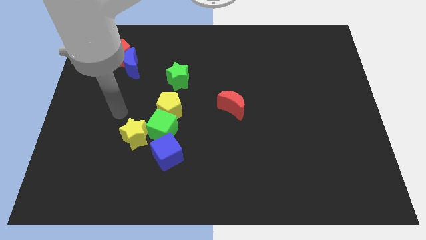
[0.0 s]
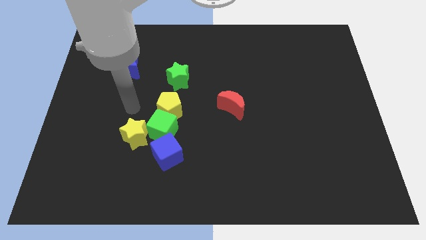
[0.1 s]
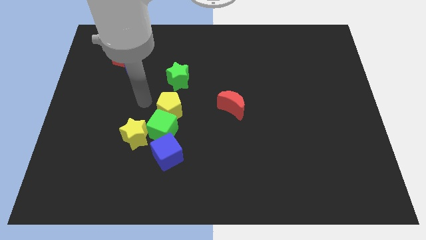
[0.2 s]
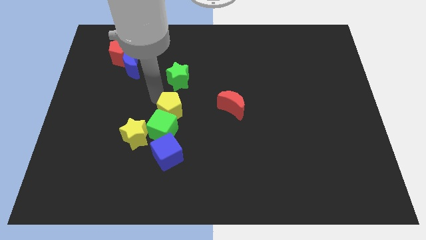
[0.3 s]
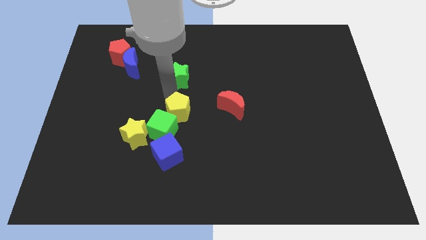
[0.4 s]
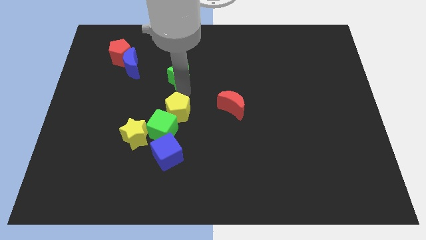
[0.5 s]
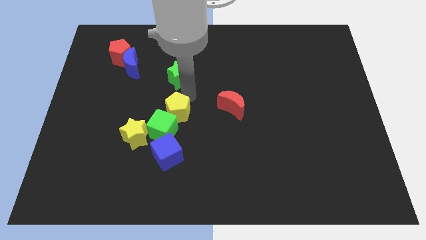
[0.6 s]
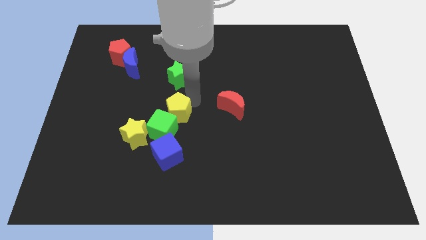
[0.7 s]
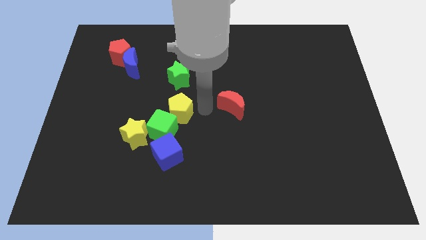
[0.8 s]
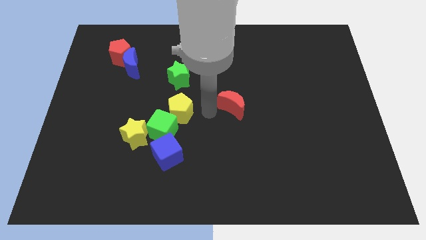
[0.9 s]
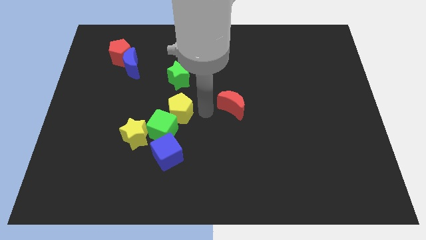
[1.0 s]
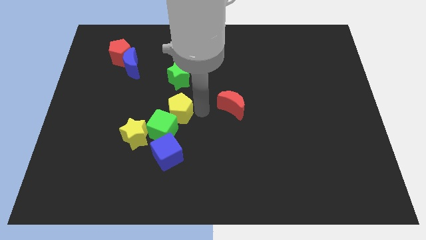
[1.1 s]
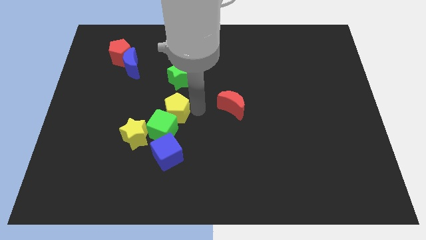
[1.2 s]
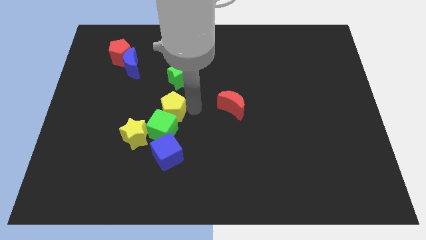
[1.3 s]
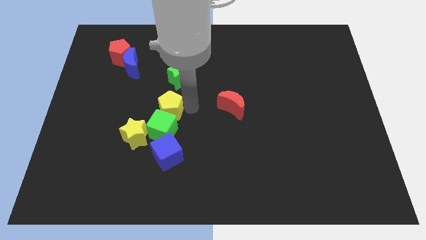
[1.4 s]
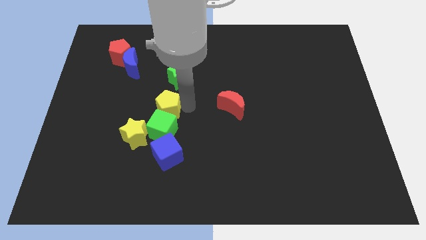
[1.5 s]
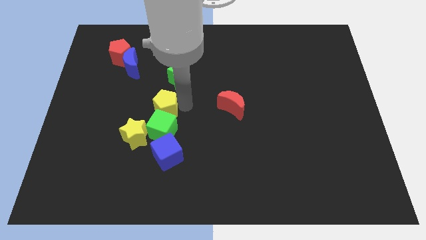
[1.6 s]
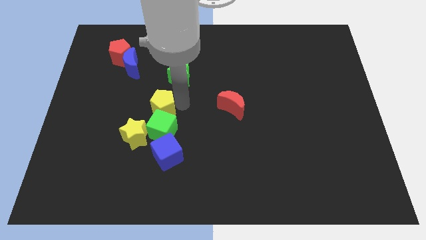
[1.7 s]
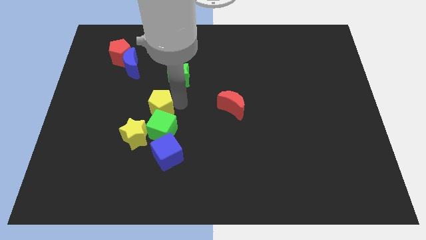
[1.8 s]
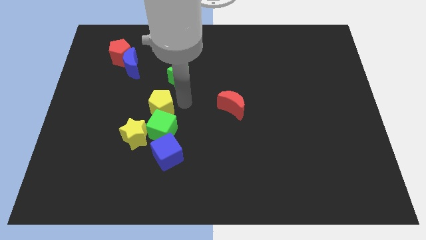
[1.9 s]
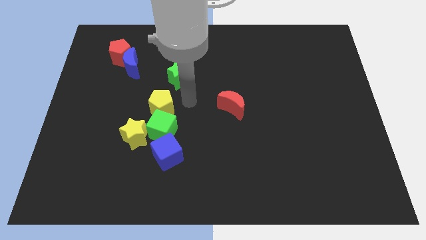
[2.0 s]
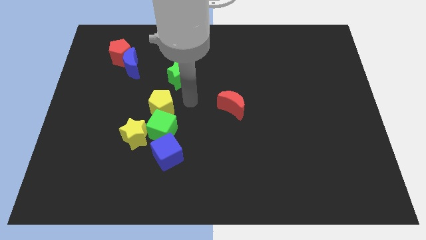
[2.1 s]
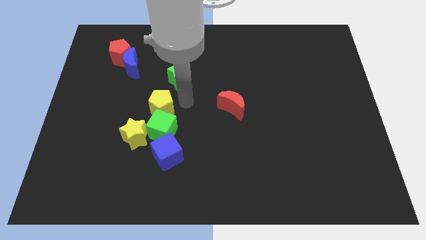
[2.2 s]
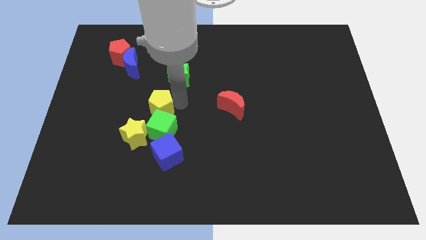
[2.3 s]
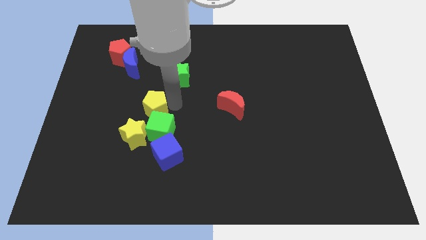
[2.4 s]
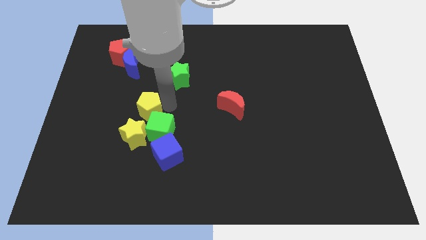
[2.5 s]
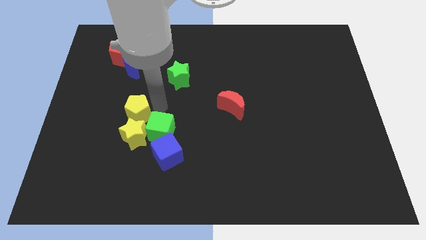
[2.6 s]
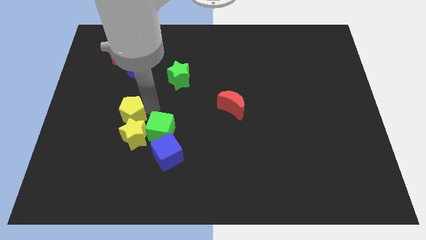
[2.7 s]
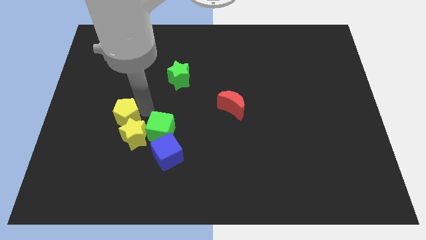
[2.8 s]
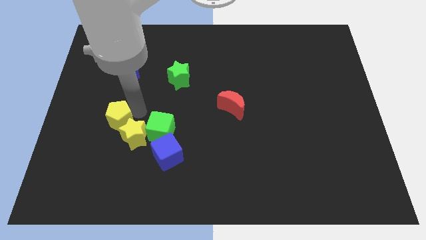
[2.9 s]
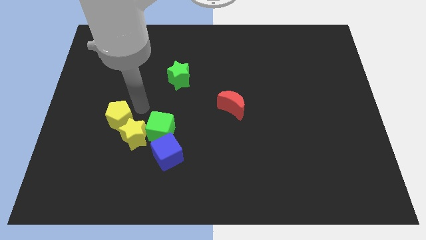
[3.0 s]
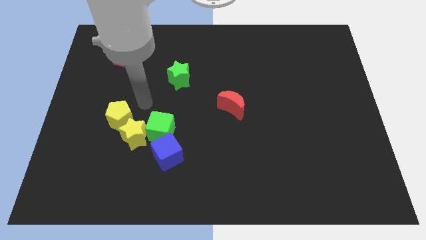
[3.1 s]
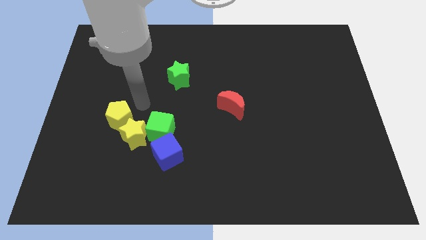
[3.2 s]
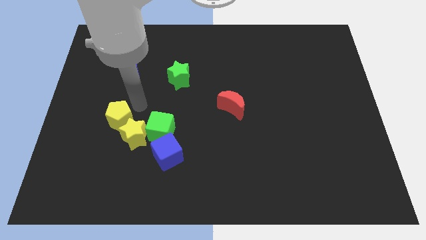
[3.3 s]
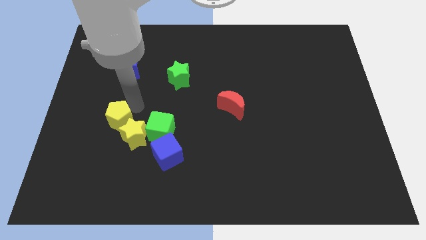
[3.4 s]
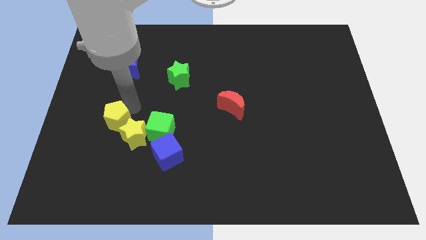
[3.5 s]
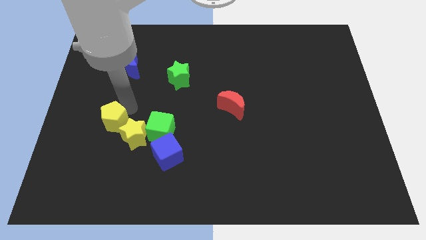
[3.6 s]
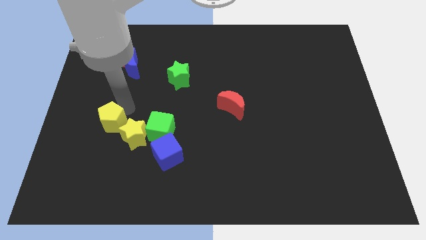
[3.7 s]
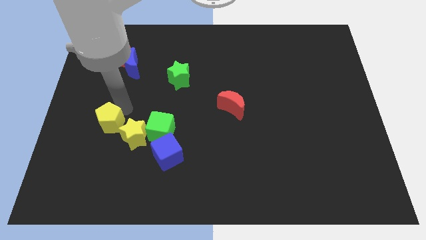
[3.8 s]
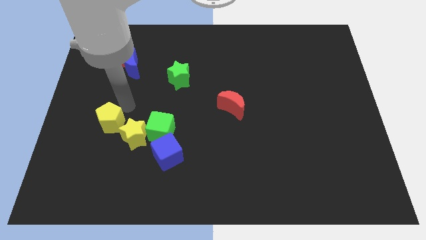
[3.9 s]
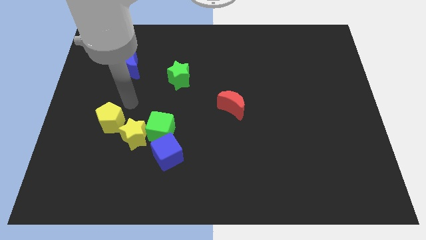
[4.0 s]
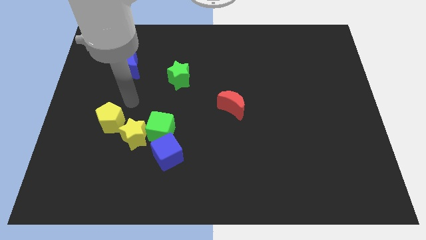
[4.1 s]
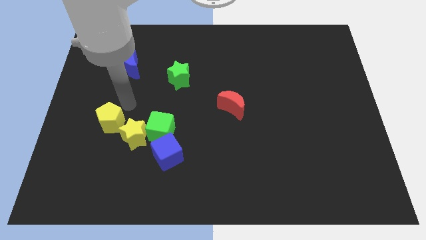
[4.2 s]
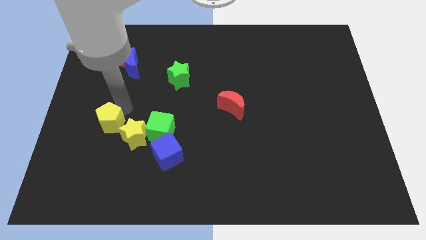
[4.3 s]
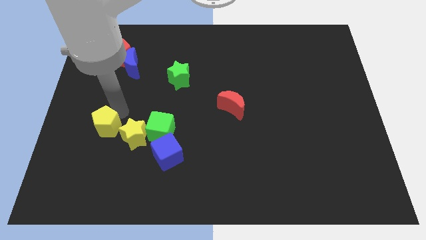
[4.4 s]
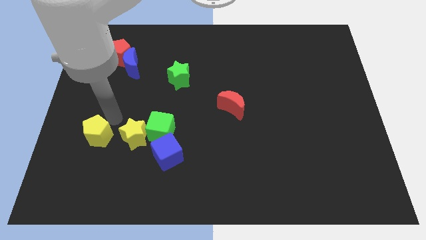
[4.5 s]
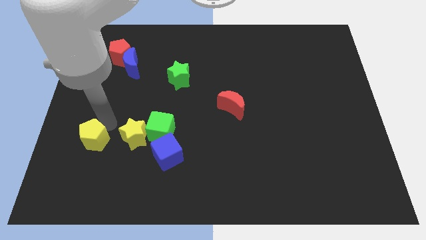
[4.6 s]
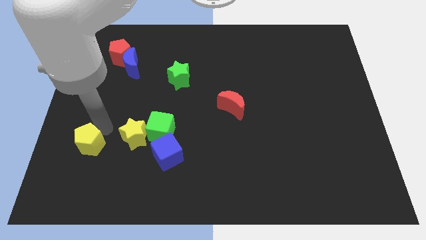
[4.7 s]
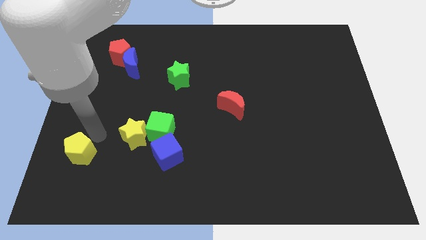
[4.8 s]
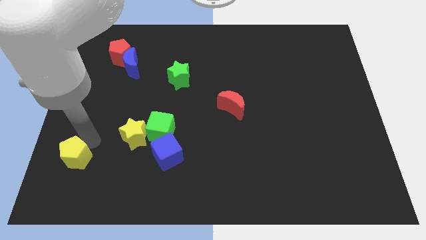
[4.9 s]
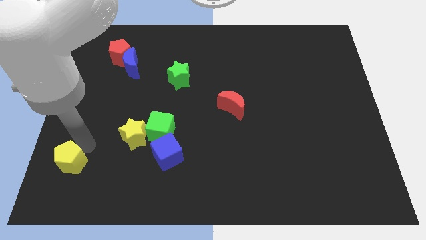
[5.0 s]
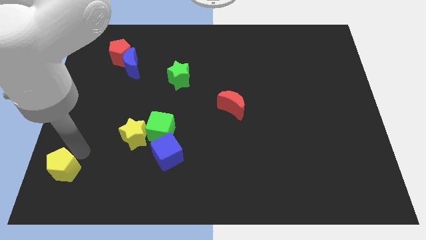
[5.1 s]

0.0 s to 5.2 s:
put the yellow pentagon to the lower left corner

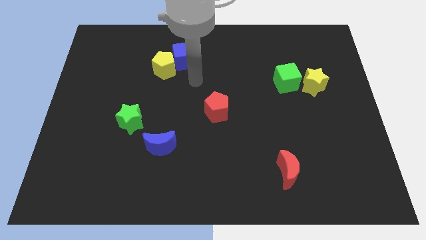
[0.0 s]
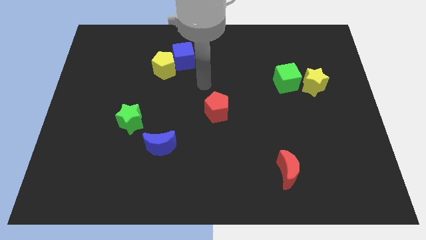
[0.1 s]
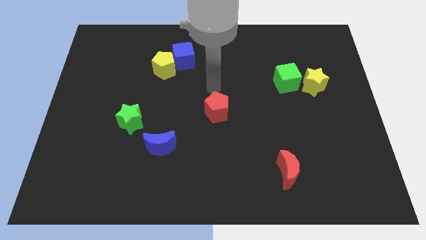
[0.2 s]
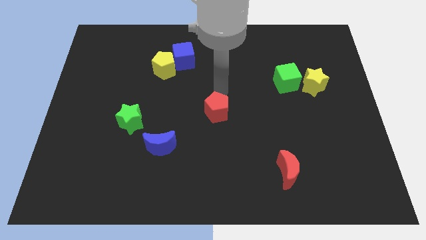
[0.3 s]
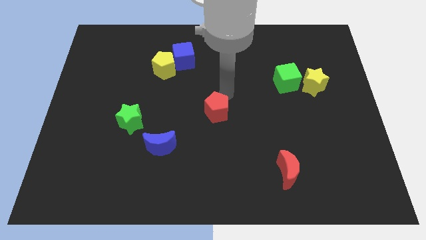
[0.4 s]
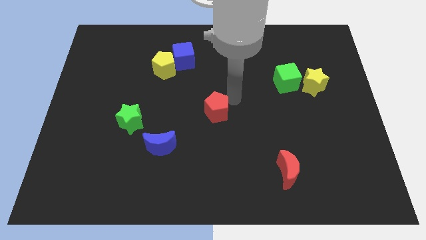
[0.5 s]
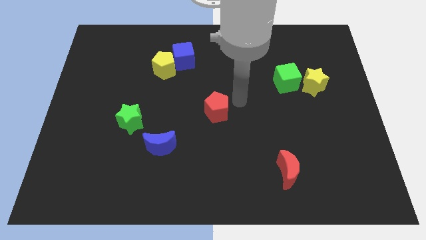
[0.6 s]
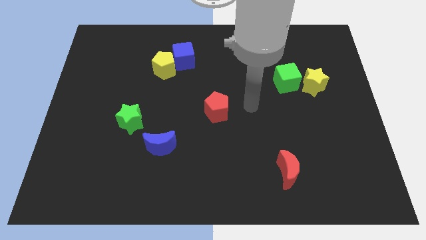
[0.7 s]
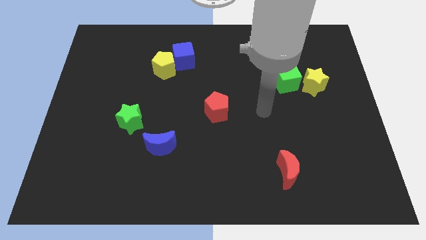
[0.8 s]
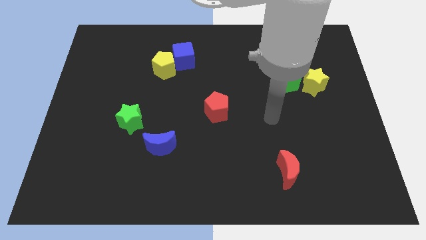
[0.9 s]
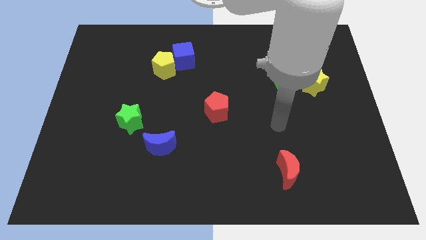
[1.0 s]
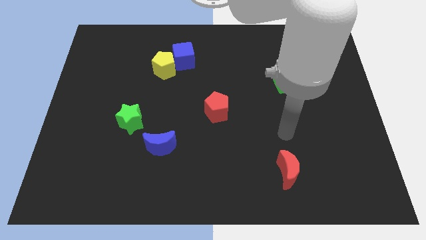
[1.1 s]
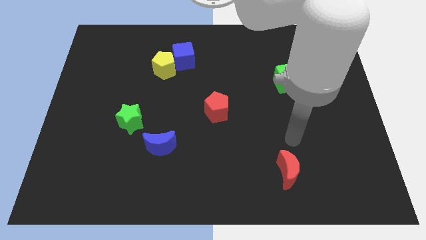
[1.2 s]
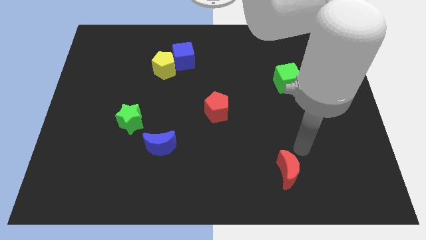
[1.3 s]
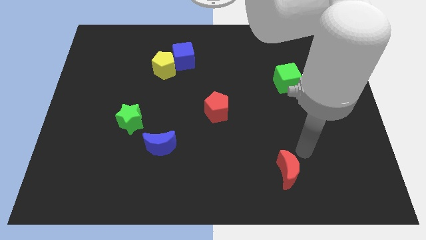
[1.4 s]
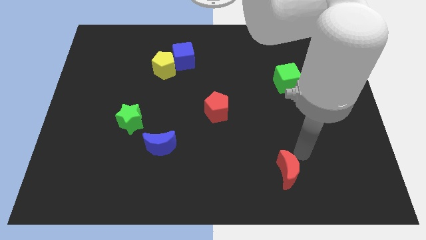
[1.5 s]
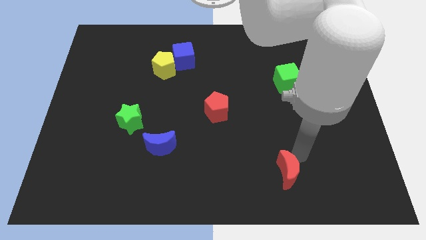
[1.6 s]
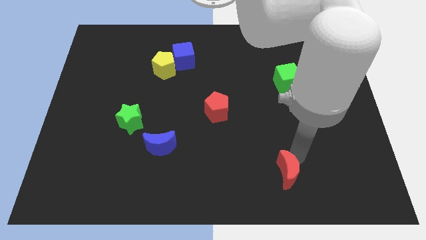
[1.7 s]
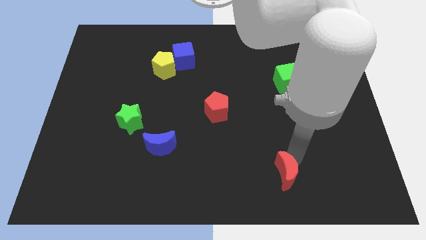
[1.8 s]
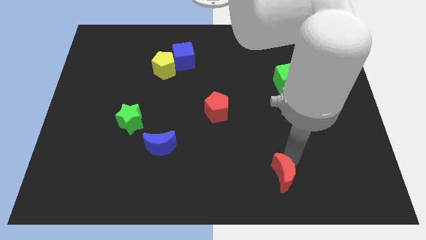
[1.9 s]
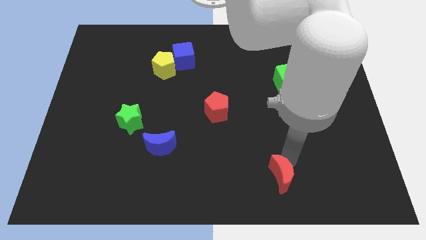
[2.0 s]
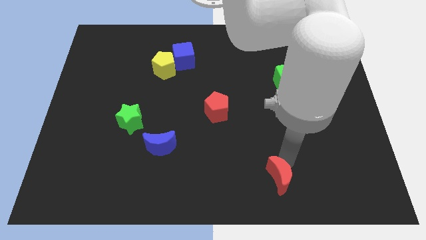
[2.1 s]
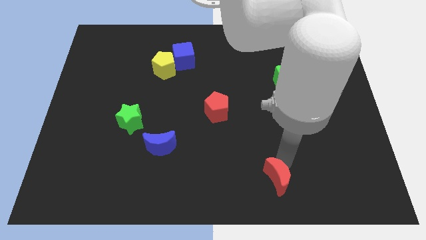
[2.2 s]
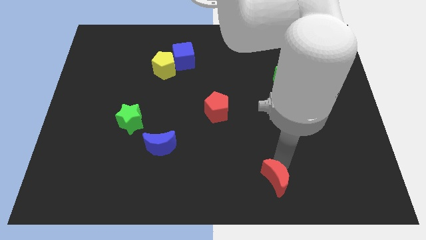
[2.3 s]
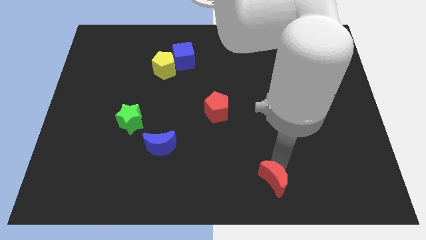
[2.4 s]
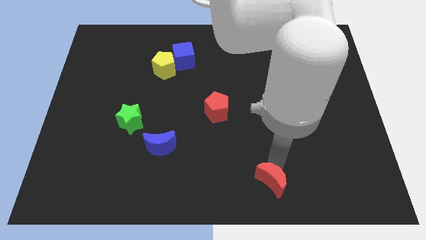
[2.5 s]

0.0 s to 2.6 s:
slide the red moon to the bottom side
